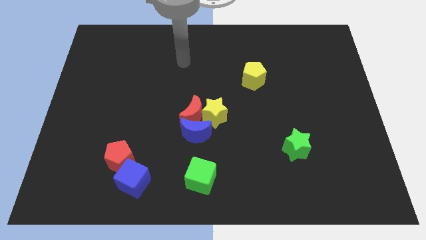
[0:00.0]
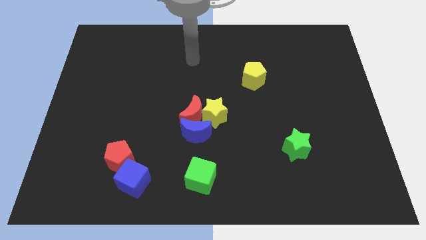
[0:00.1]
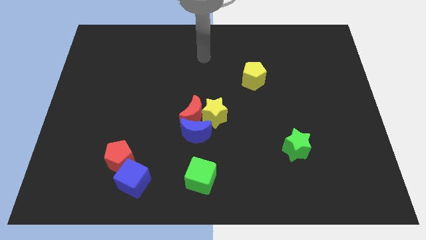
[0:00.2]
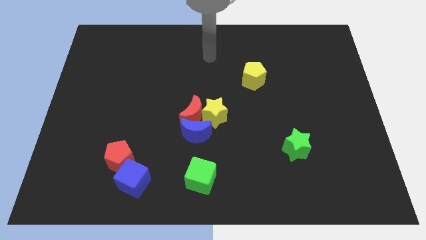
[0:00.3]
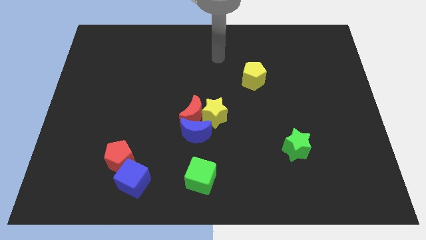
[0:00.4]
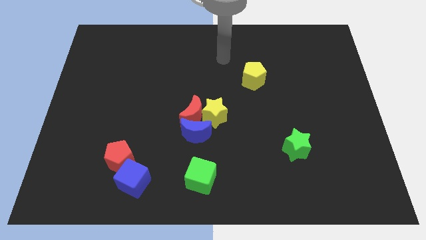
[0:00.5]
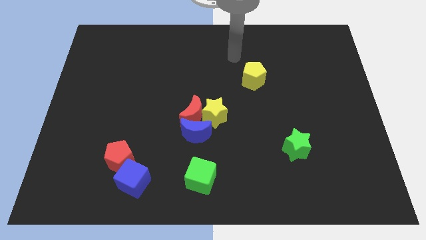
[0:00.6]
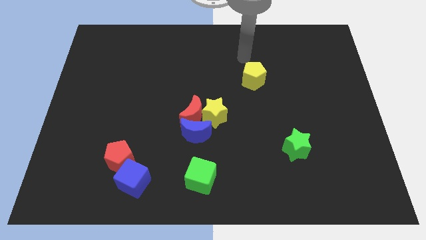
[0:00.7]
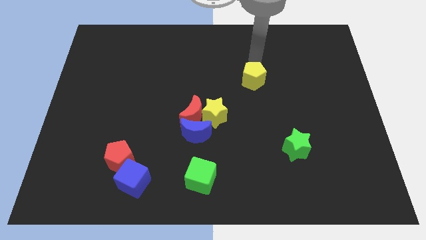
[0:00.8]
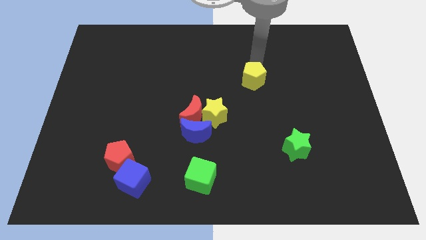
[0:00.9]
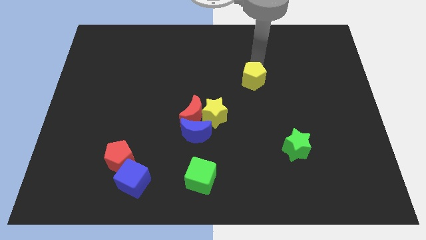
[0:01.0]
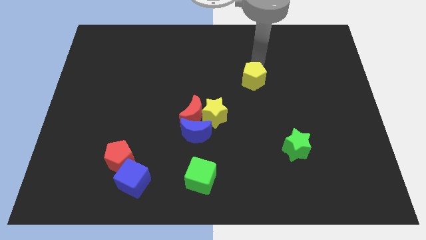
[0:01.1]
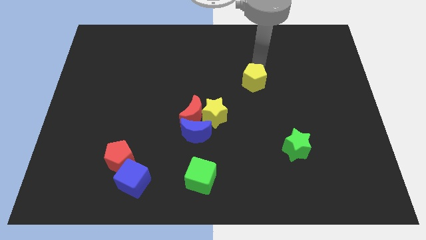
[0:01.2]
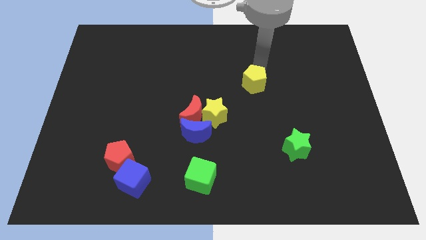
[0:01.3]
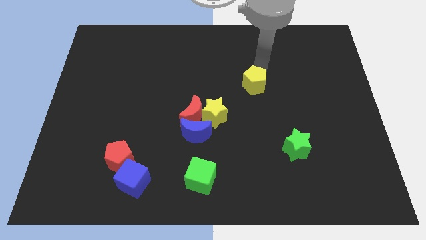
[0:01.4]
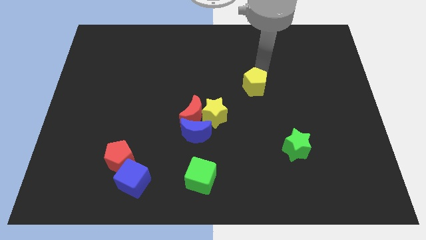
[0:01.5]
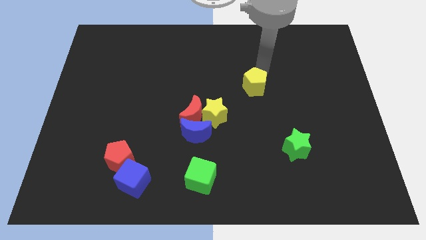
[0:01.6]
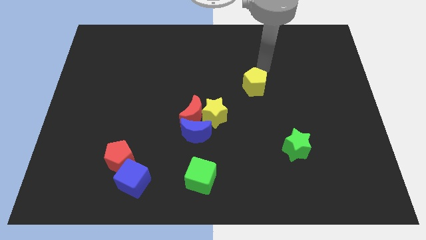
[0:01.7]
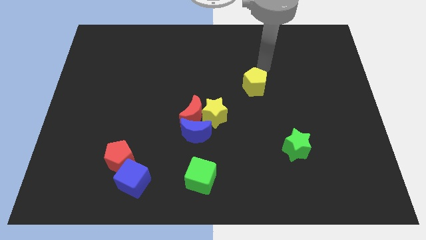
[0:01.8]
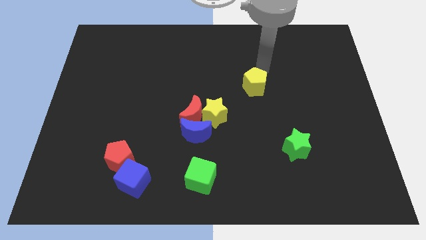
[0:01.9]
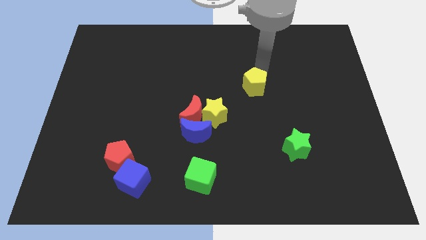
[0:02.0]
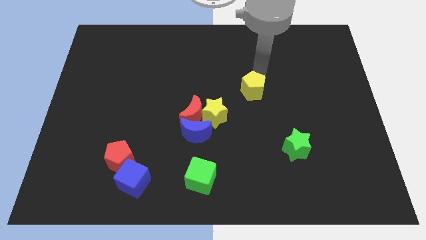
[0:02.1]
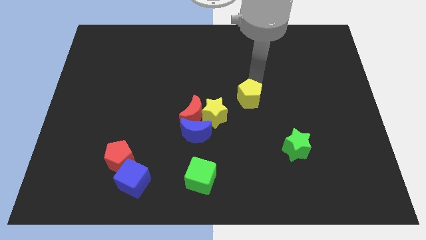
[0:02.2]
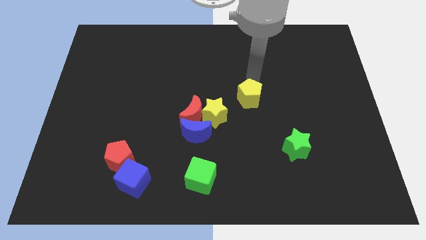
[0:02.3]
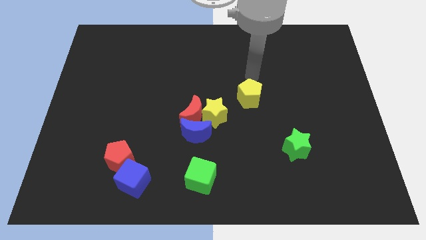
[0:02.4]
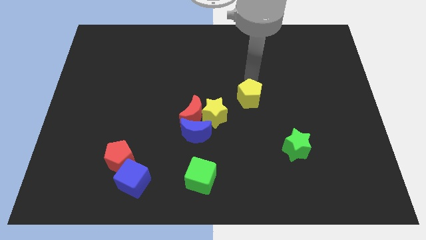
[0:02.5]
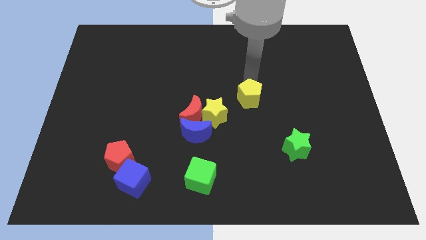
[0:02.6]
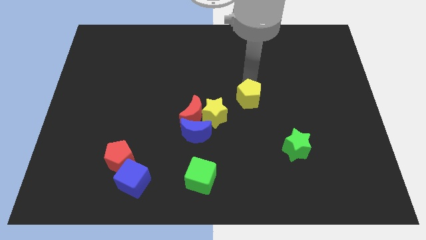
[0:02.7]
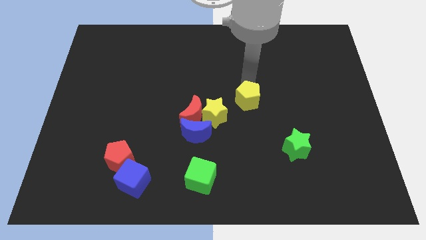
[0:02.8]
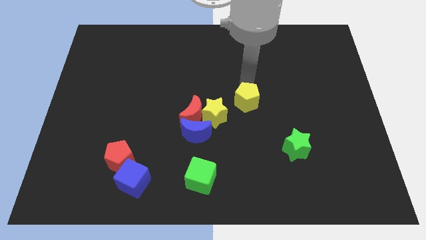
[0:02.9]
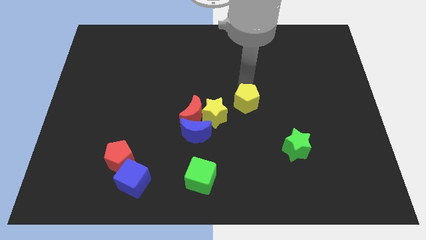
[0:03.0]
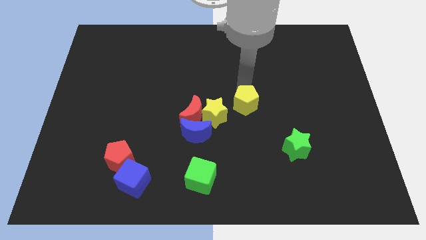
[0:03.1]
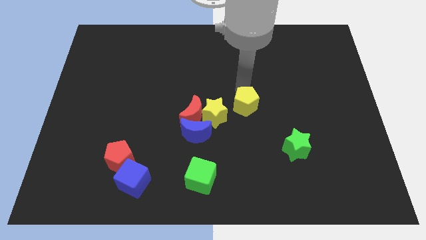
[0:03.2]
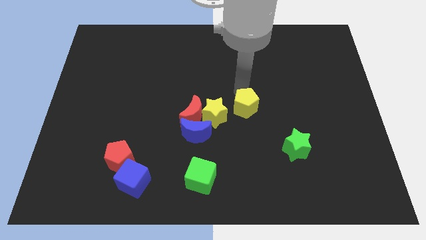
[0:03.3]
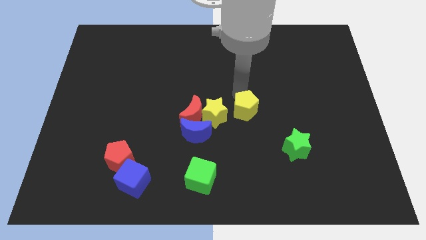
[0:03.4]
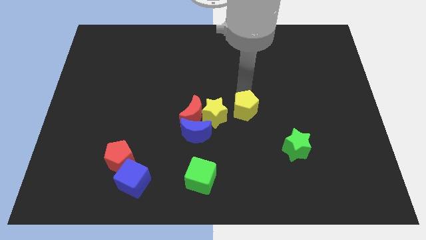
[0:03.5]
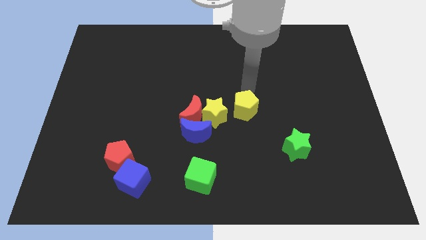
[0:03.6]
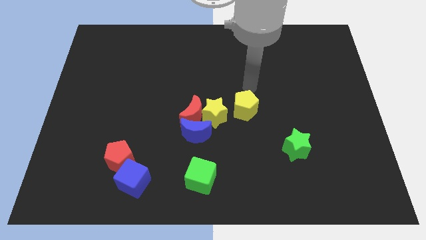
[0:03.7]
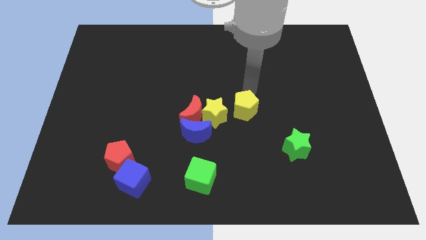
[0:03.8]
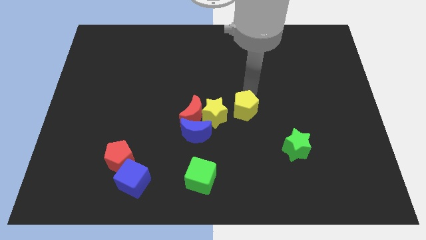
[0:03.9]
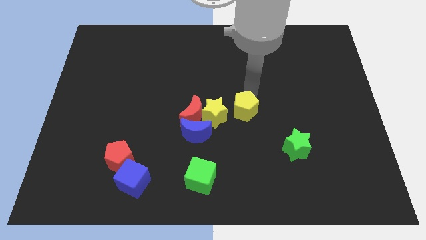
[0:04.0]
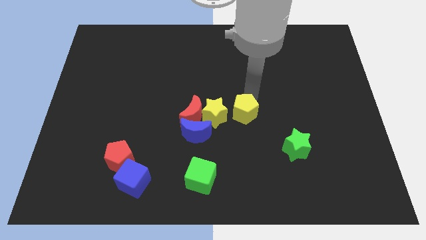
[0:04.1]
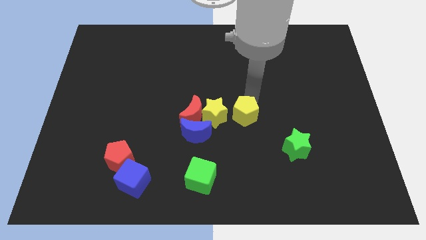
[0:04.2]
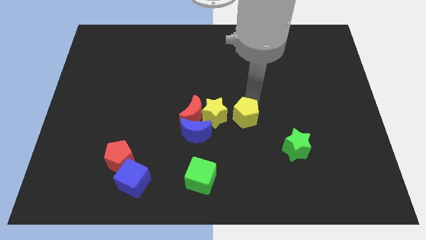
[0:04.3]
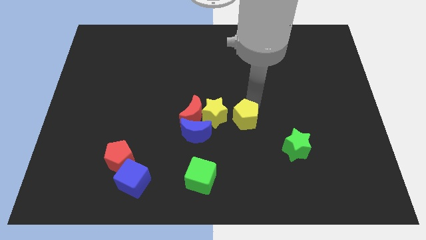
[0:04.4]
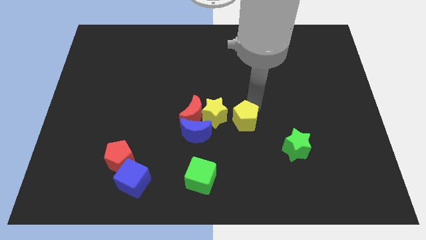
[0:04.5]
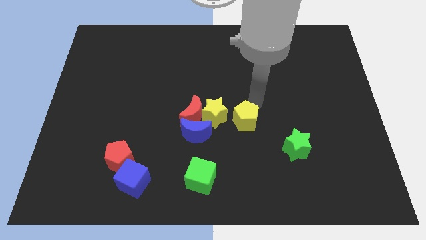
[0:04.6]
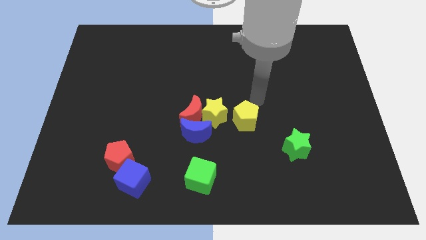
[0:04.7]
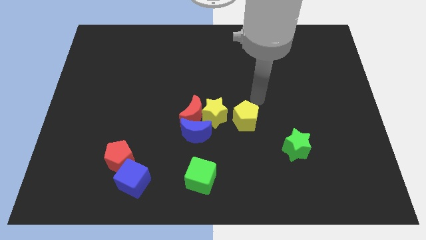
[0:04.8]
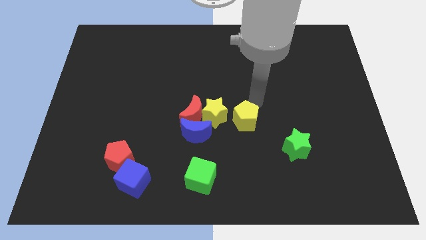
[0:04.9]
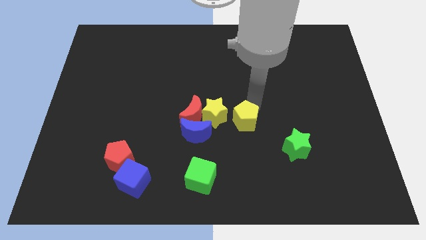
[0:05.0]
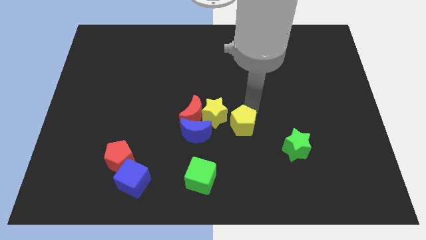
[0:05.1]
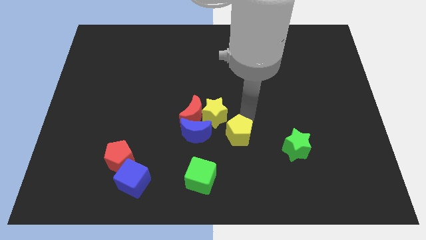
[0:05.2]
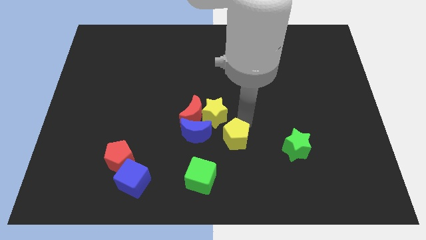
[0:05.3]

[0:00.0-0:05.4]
push the yellow pentagon to the top right side of the green cube

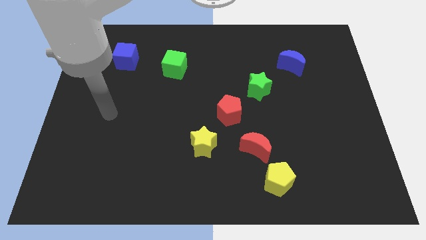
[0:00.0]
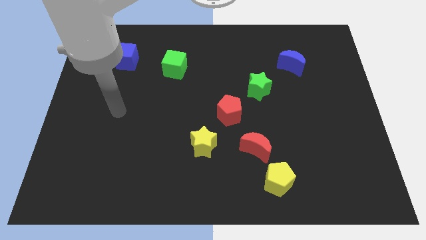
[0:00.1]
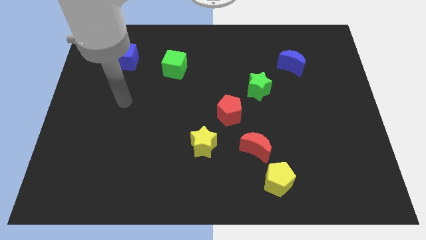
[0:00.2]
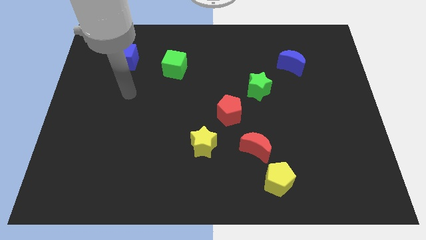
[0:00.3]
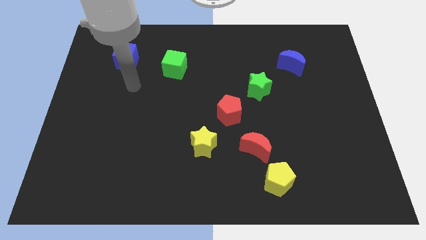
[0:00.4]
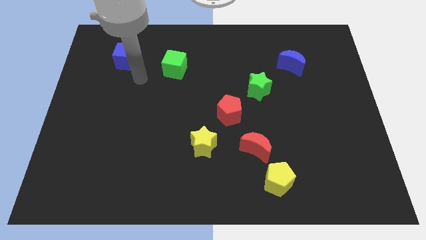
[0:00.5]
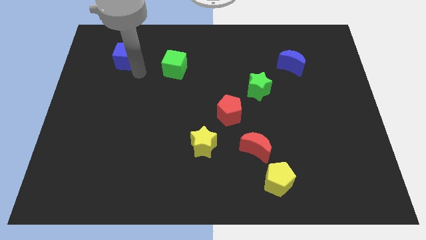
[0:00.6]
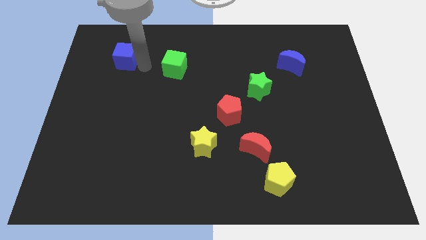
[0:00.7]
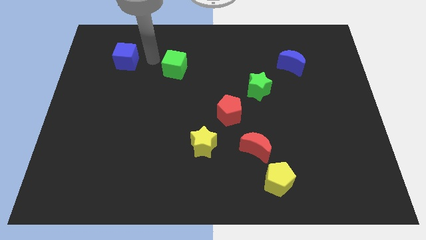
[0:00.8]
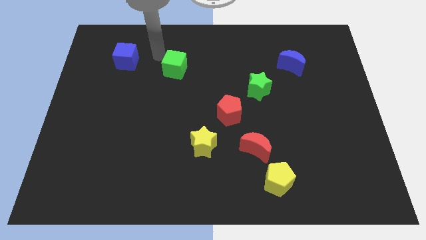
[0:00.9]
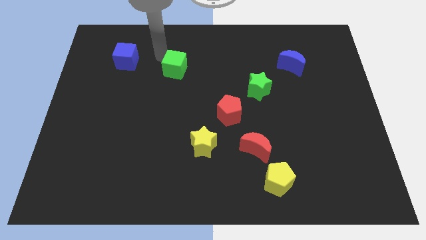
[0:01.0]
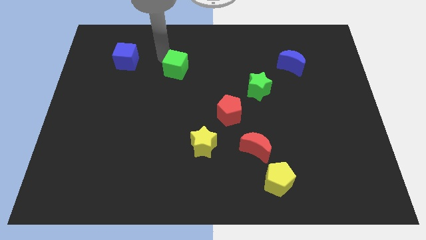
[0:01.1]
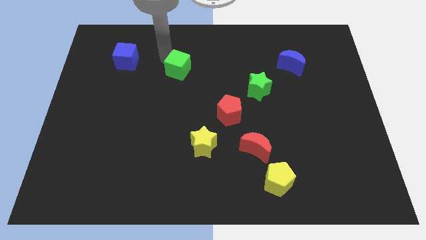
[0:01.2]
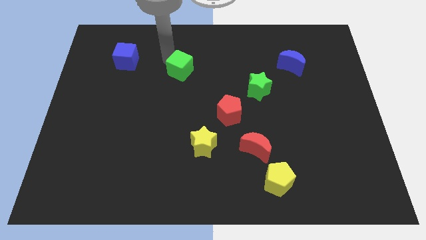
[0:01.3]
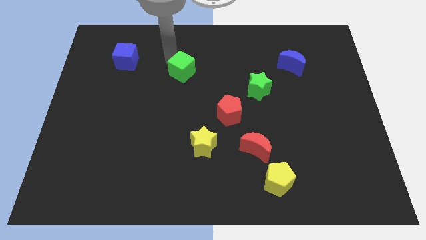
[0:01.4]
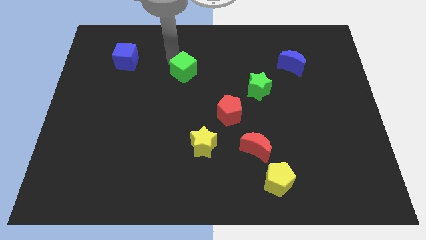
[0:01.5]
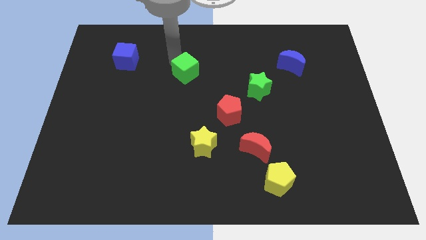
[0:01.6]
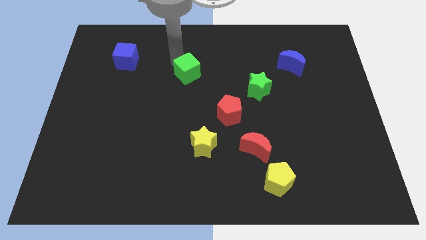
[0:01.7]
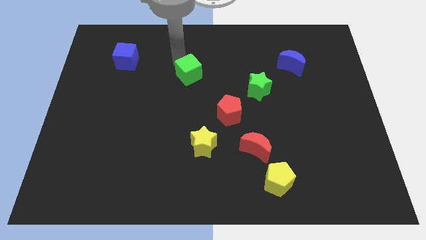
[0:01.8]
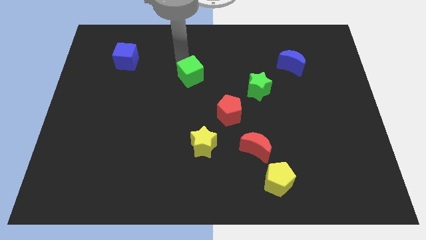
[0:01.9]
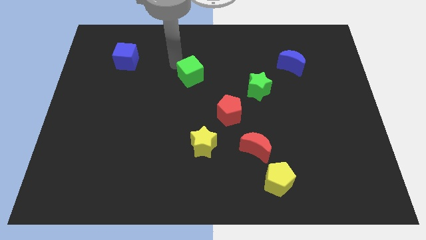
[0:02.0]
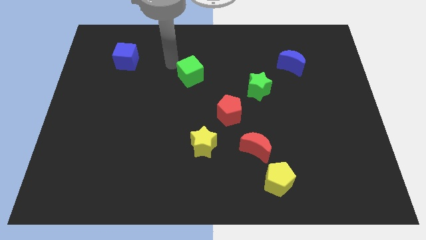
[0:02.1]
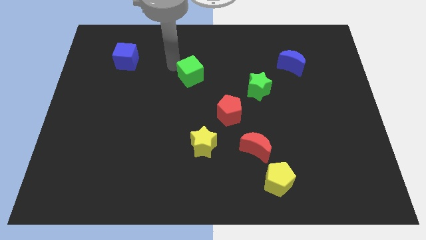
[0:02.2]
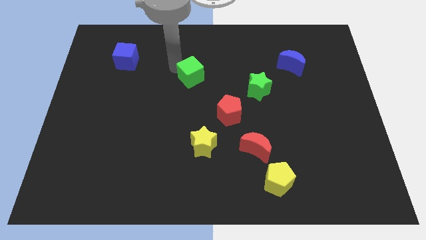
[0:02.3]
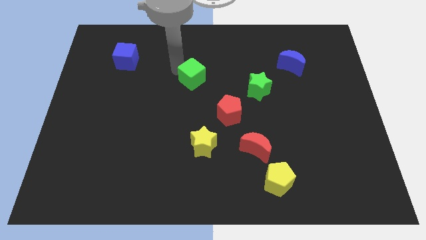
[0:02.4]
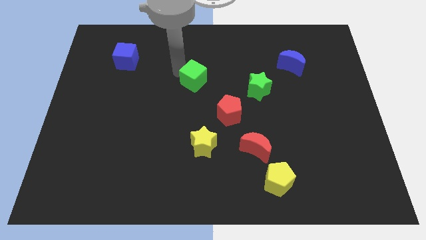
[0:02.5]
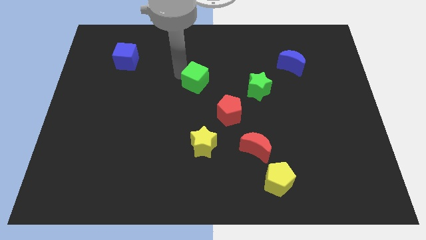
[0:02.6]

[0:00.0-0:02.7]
slide the green cube to the left of the green star
